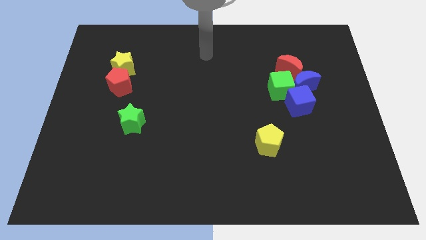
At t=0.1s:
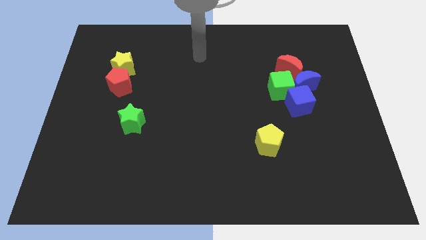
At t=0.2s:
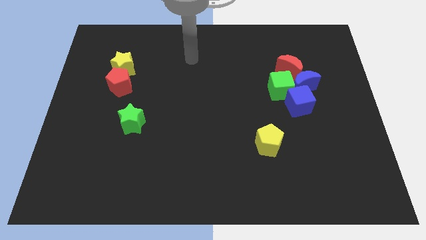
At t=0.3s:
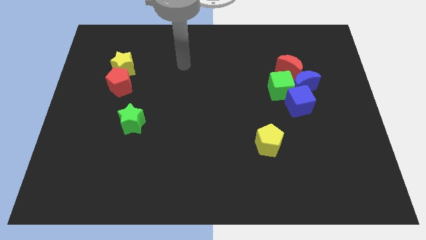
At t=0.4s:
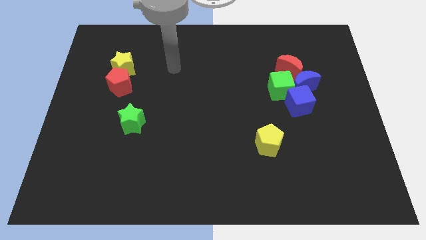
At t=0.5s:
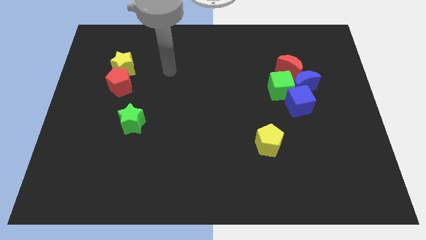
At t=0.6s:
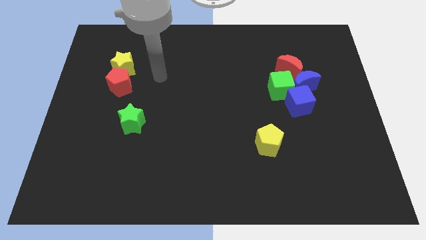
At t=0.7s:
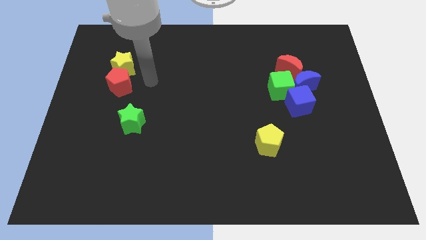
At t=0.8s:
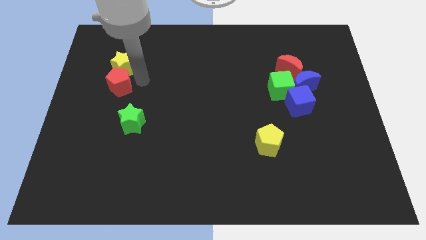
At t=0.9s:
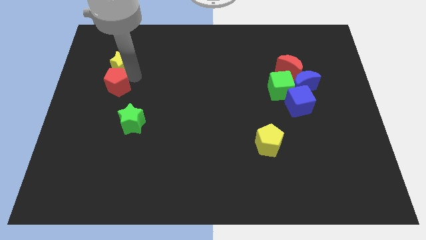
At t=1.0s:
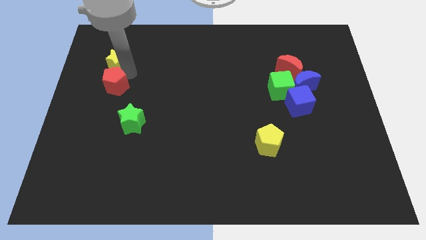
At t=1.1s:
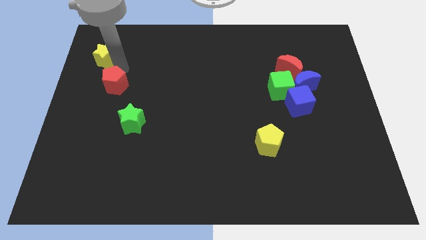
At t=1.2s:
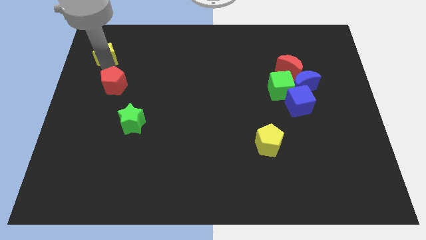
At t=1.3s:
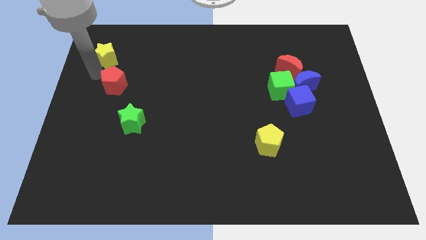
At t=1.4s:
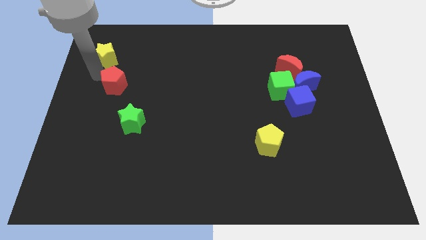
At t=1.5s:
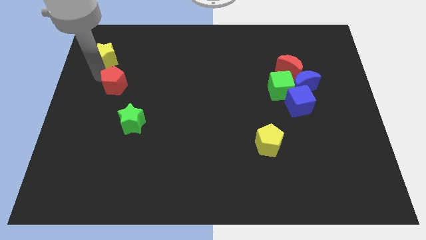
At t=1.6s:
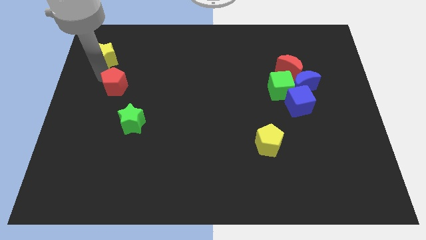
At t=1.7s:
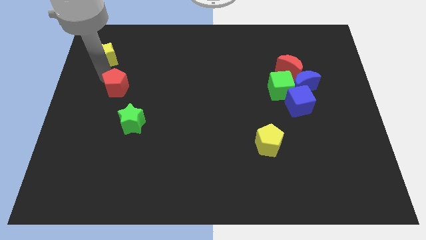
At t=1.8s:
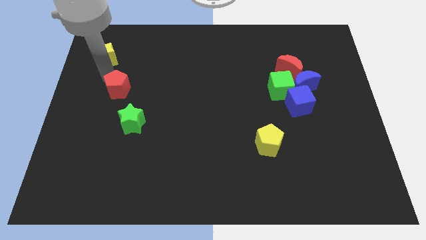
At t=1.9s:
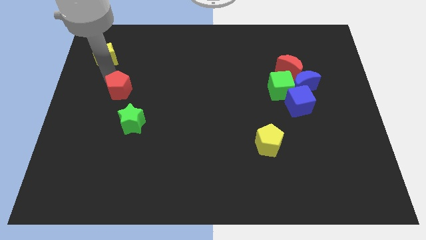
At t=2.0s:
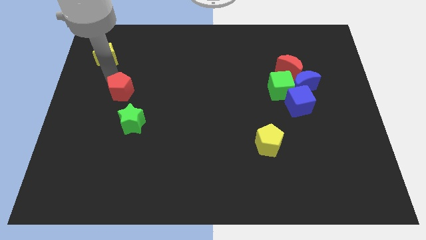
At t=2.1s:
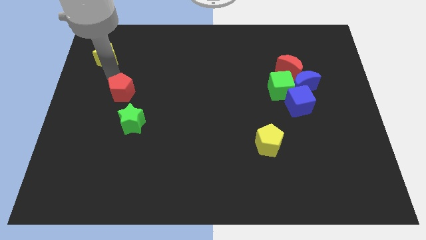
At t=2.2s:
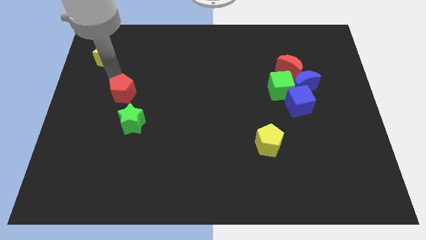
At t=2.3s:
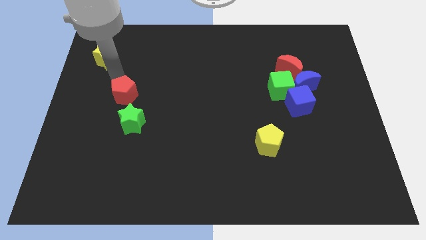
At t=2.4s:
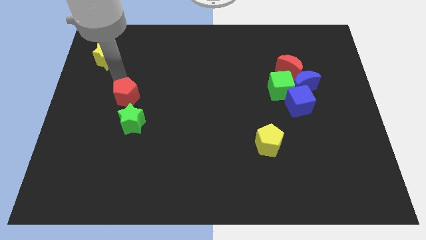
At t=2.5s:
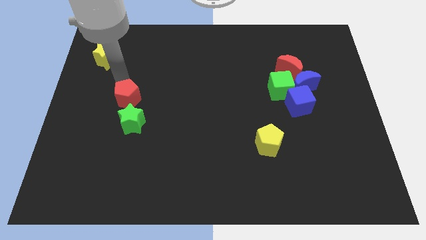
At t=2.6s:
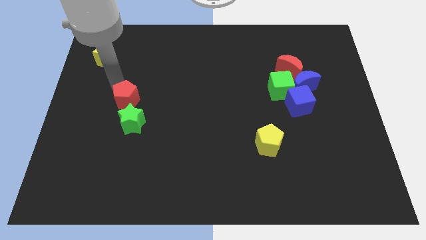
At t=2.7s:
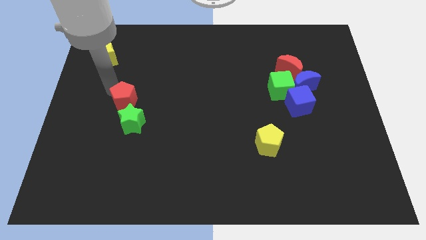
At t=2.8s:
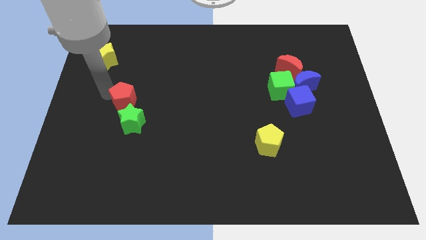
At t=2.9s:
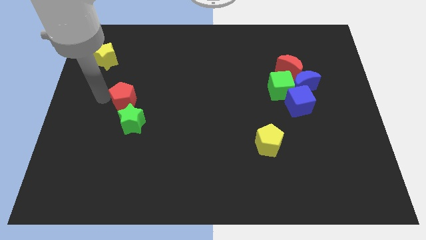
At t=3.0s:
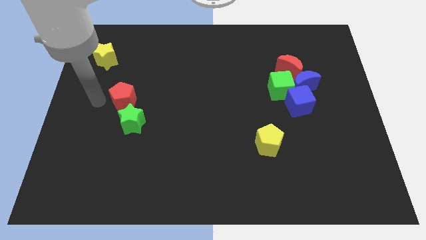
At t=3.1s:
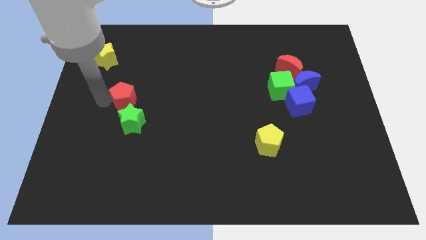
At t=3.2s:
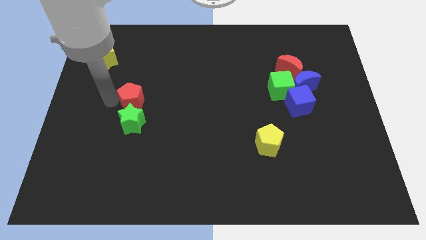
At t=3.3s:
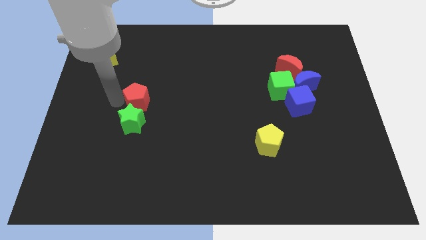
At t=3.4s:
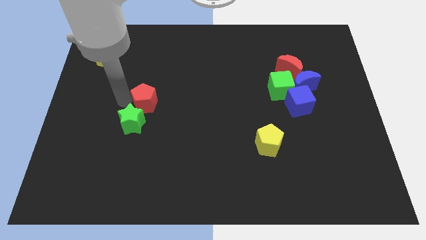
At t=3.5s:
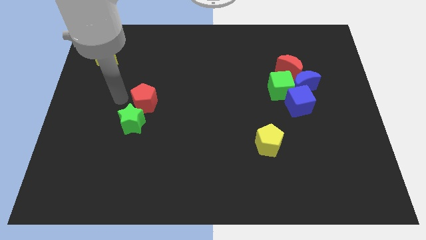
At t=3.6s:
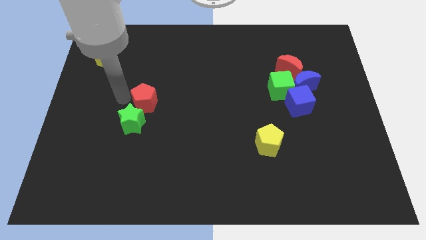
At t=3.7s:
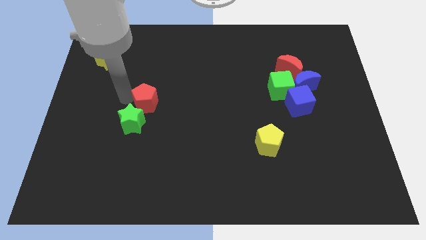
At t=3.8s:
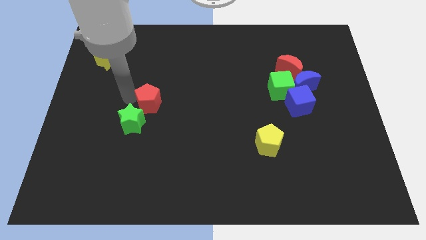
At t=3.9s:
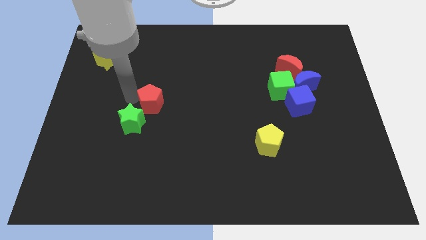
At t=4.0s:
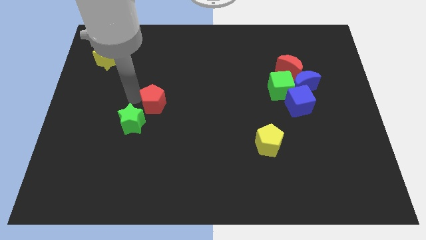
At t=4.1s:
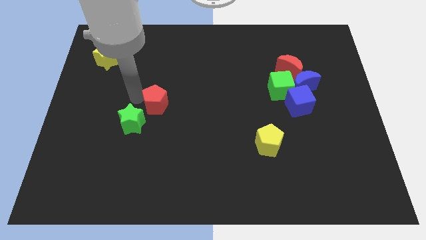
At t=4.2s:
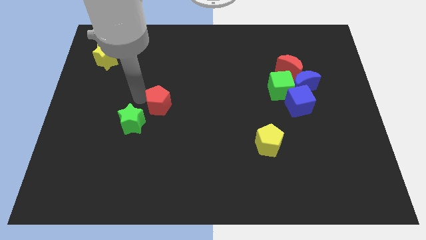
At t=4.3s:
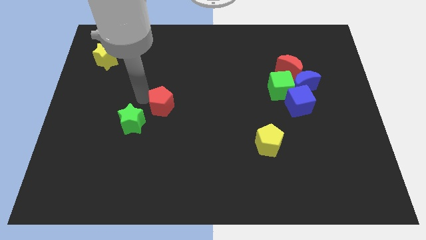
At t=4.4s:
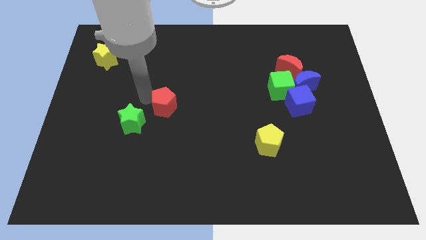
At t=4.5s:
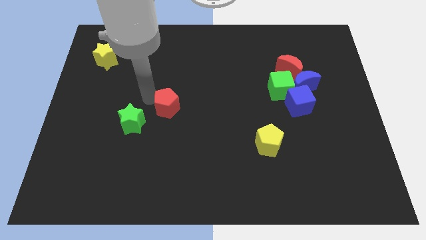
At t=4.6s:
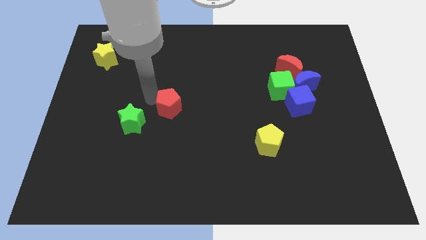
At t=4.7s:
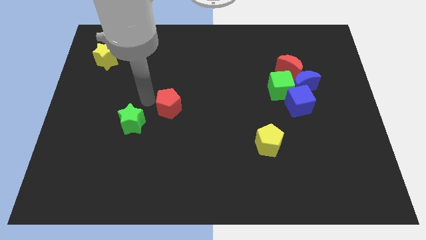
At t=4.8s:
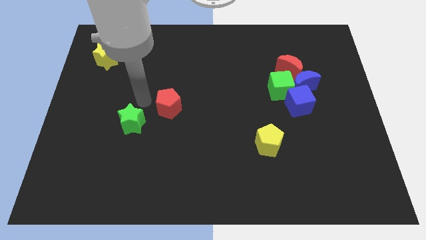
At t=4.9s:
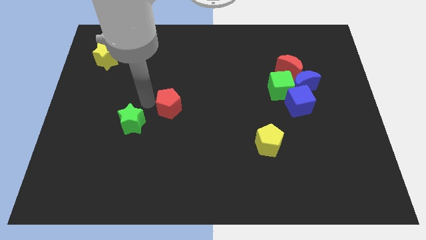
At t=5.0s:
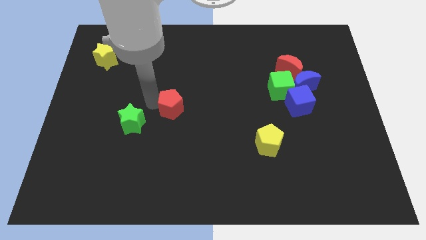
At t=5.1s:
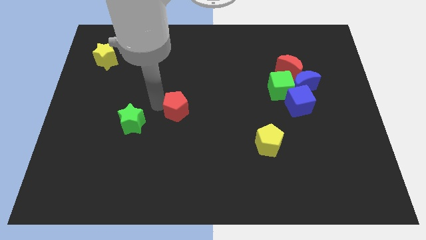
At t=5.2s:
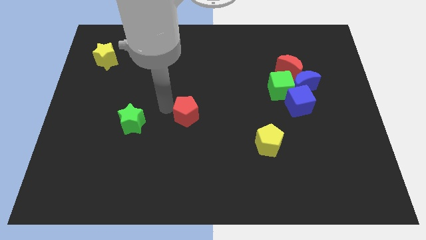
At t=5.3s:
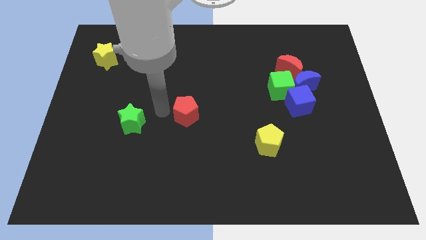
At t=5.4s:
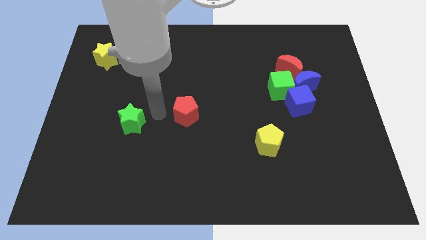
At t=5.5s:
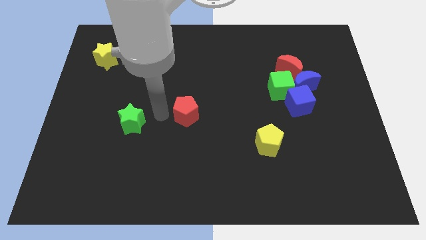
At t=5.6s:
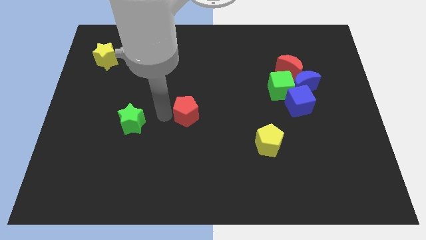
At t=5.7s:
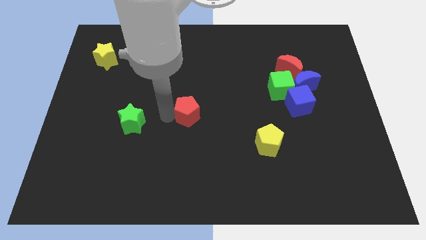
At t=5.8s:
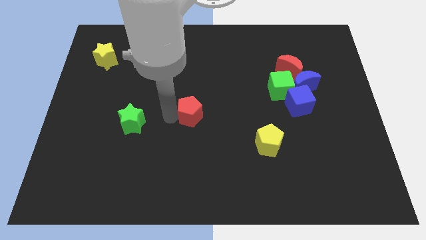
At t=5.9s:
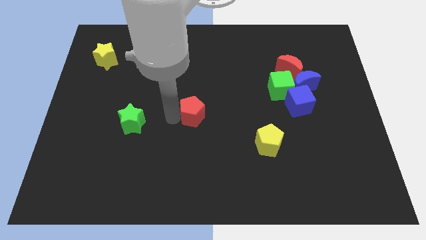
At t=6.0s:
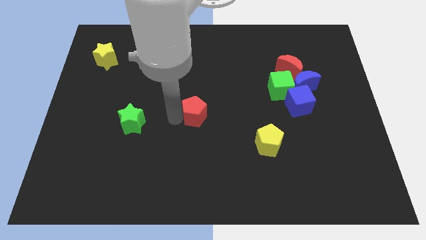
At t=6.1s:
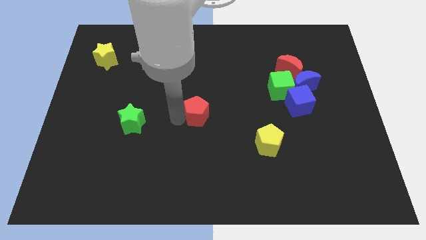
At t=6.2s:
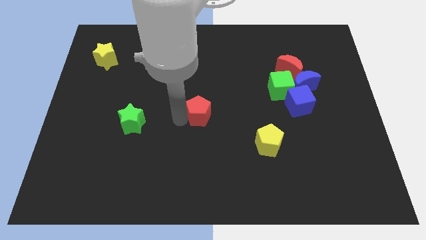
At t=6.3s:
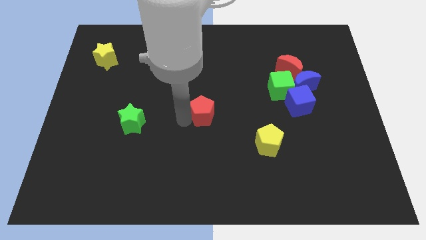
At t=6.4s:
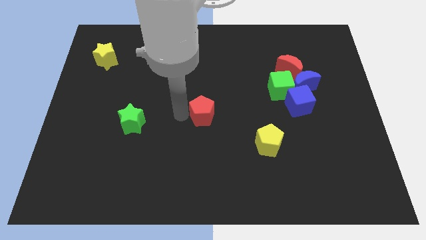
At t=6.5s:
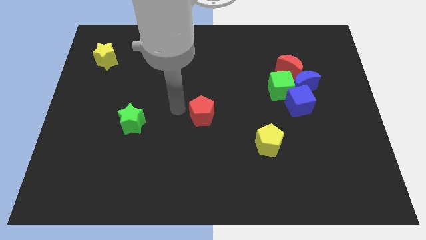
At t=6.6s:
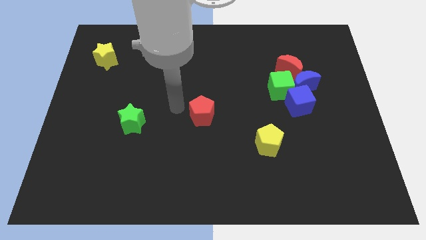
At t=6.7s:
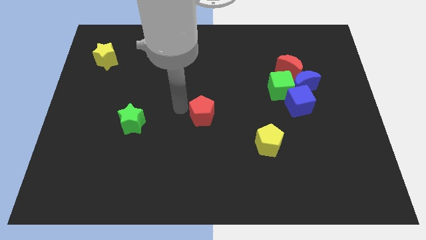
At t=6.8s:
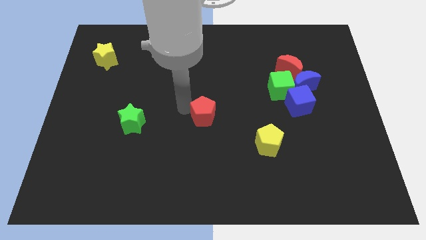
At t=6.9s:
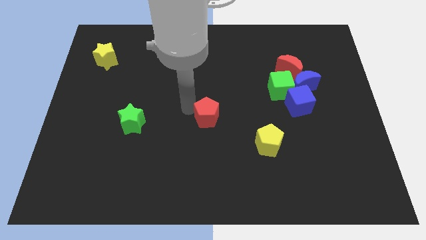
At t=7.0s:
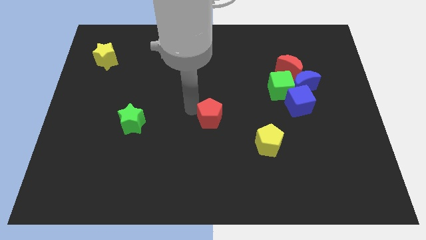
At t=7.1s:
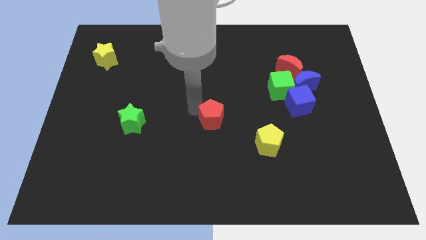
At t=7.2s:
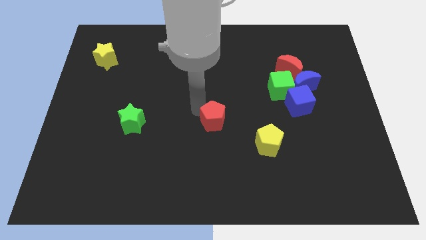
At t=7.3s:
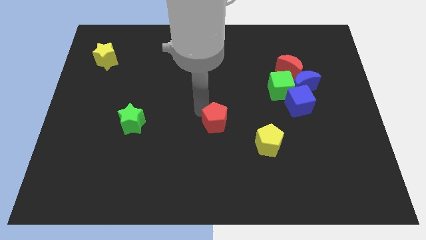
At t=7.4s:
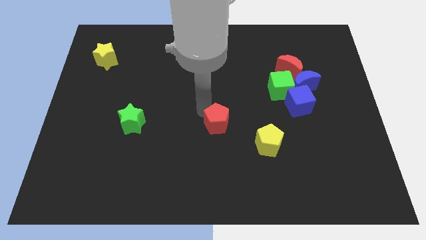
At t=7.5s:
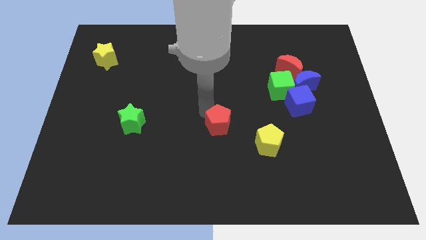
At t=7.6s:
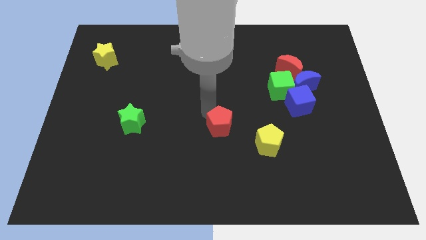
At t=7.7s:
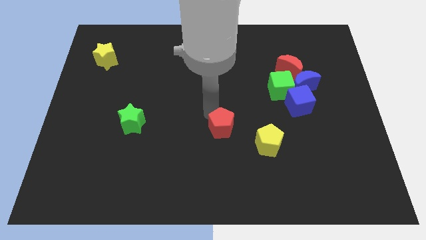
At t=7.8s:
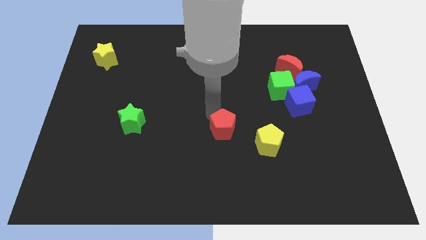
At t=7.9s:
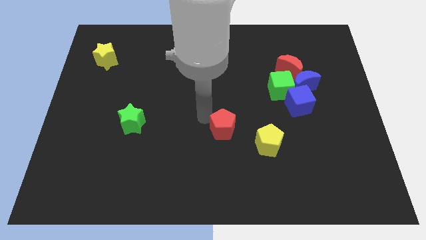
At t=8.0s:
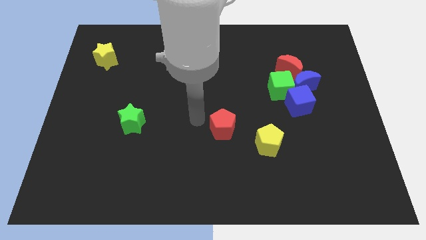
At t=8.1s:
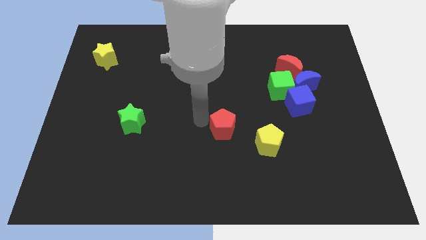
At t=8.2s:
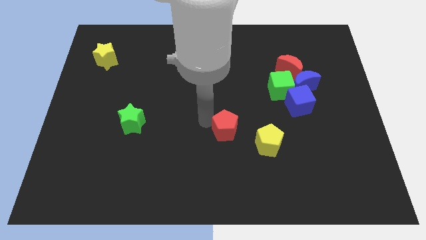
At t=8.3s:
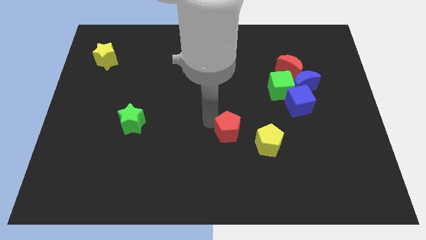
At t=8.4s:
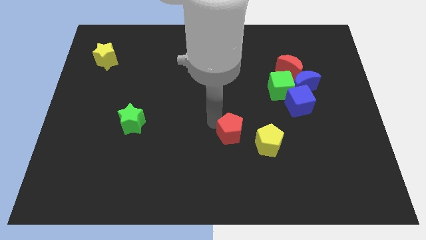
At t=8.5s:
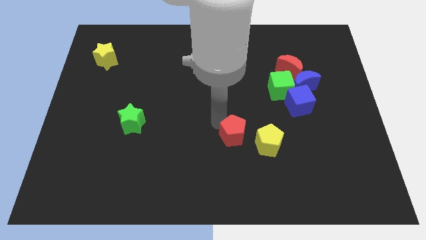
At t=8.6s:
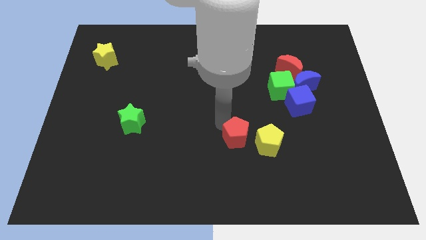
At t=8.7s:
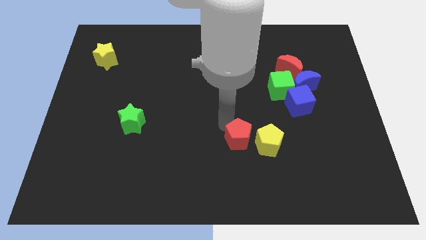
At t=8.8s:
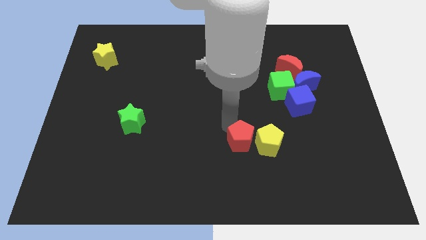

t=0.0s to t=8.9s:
push the red pentagon next to the yellow pentagon
